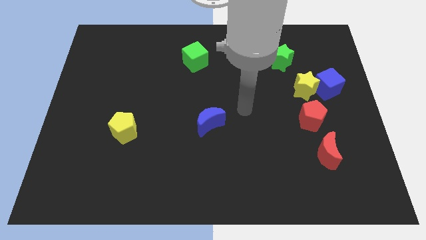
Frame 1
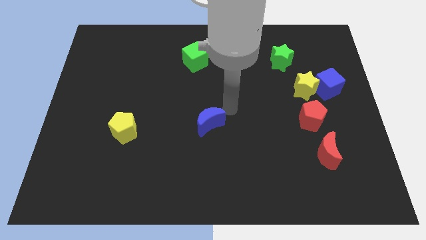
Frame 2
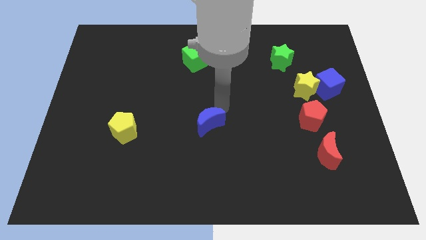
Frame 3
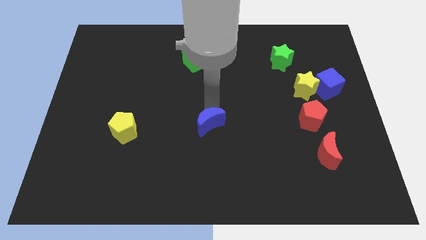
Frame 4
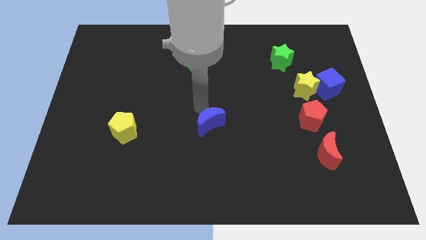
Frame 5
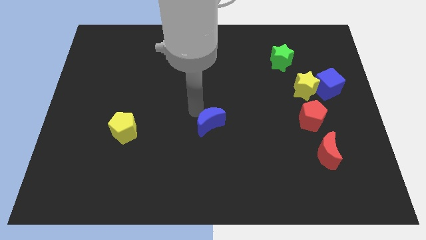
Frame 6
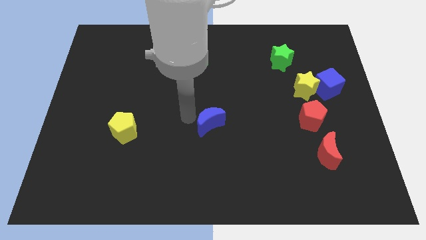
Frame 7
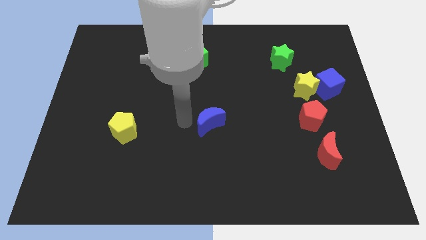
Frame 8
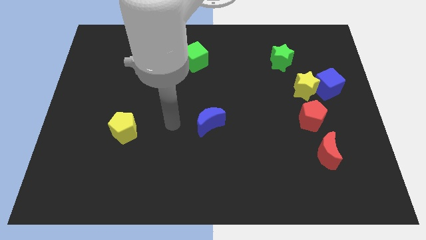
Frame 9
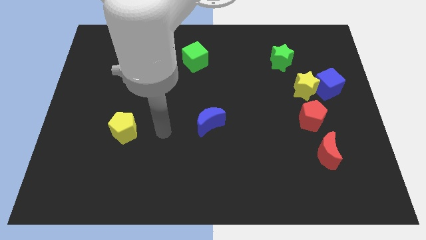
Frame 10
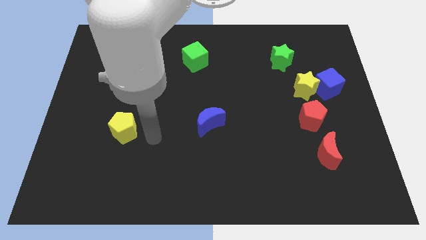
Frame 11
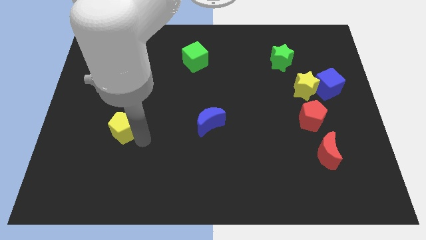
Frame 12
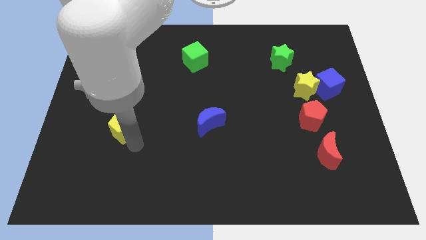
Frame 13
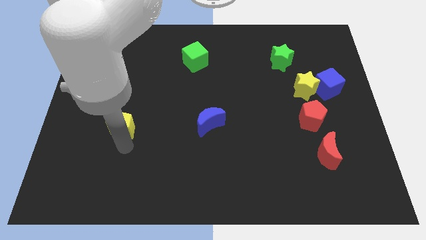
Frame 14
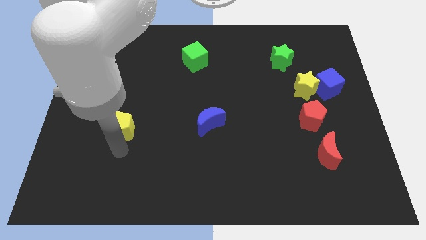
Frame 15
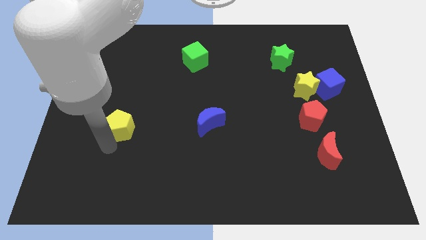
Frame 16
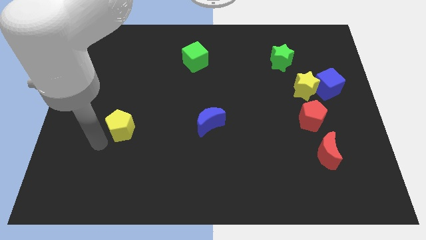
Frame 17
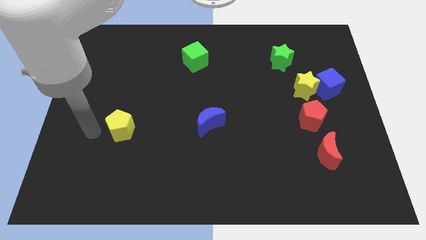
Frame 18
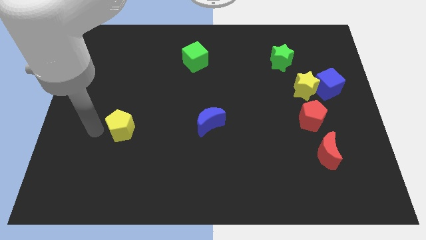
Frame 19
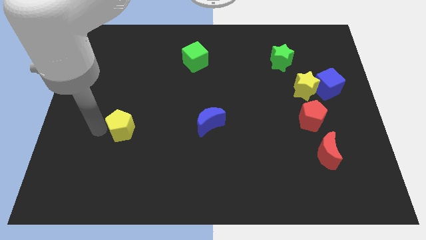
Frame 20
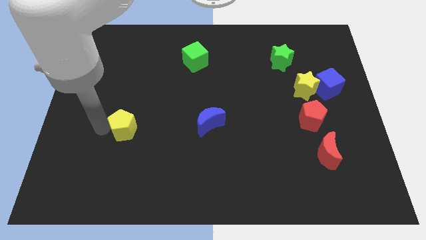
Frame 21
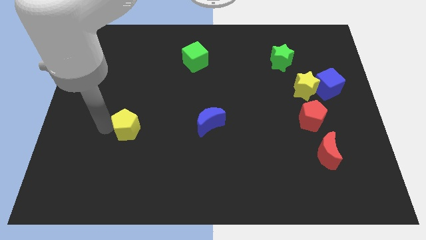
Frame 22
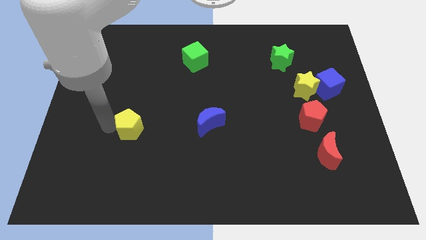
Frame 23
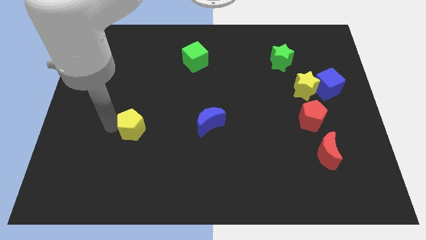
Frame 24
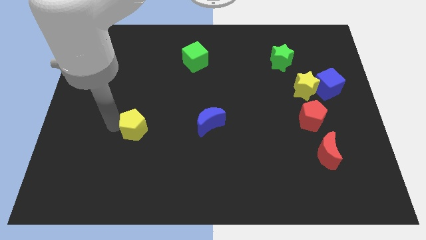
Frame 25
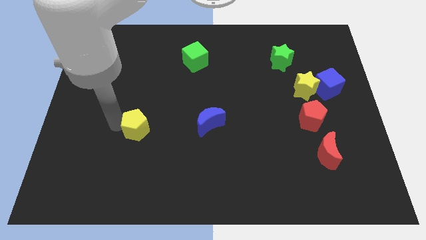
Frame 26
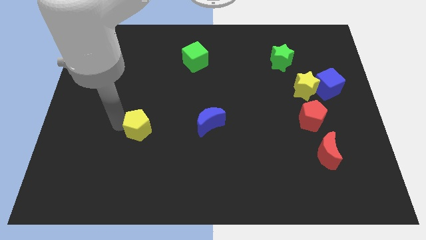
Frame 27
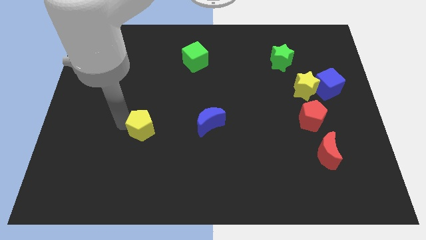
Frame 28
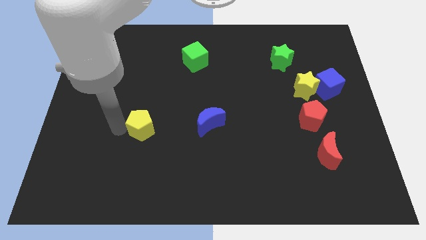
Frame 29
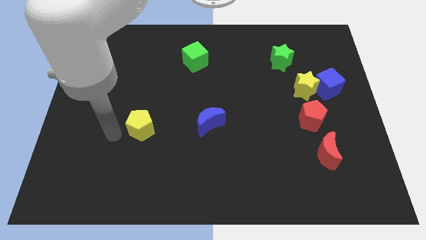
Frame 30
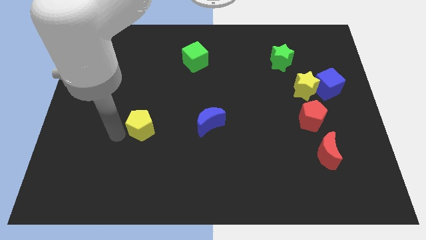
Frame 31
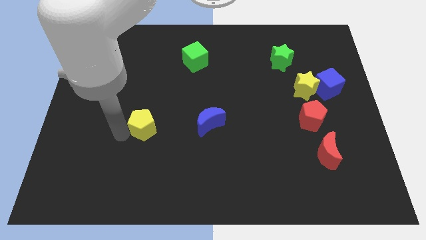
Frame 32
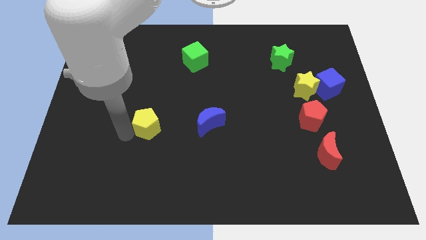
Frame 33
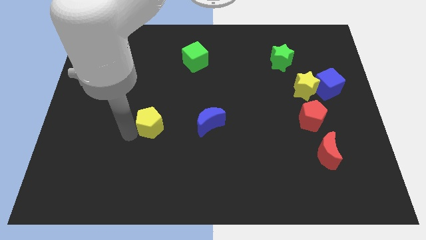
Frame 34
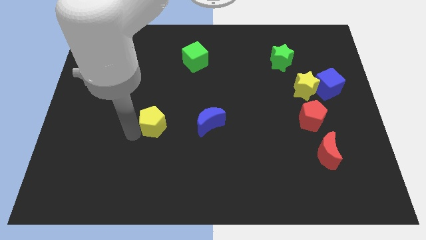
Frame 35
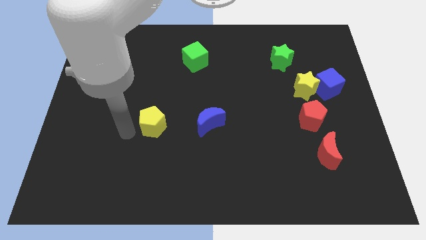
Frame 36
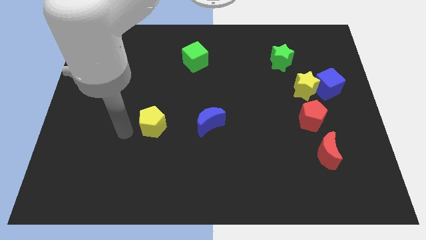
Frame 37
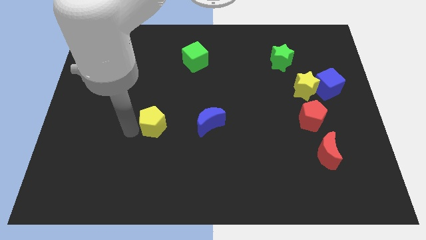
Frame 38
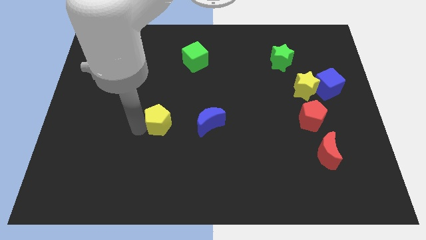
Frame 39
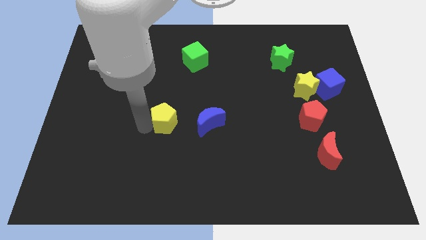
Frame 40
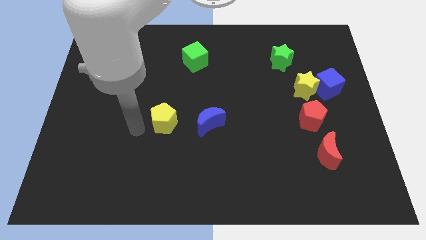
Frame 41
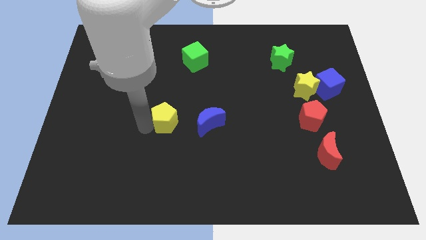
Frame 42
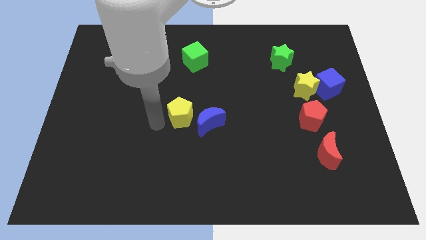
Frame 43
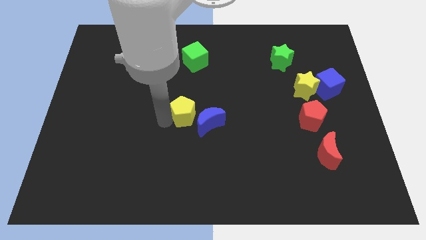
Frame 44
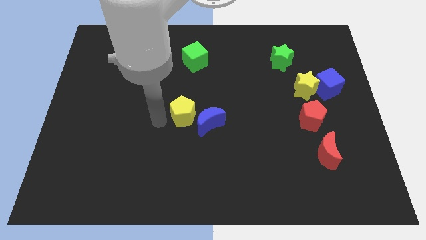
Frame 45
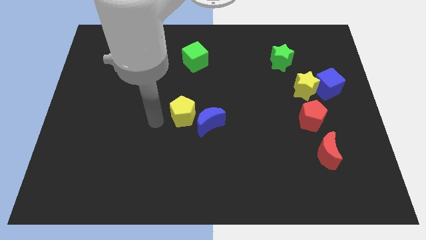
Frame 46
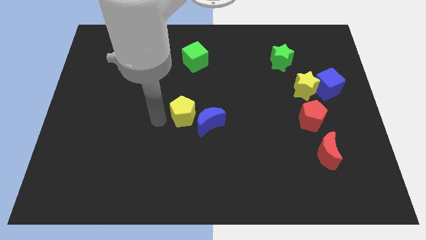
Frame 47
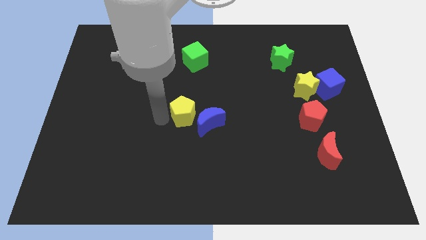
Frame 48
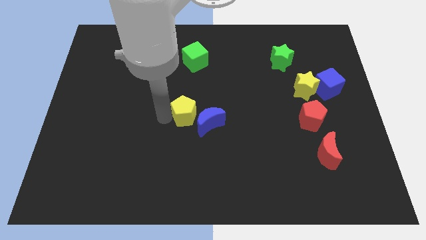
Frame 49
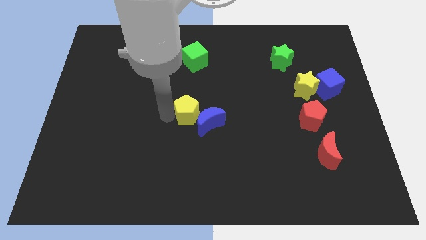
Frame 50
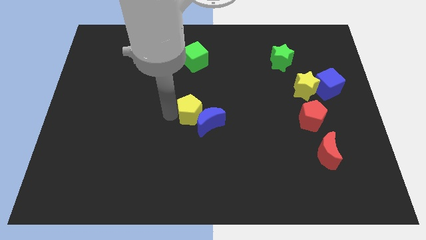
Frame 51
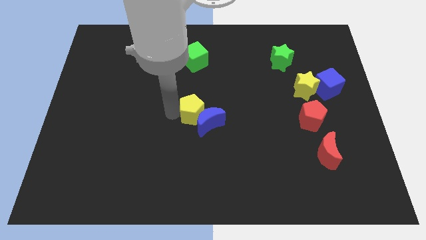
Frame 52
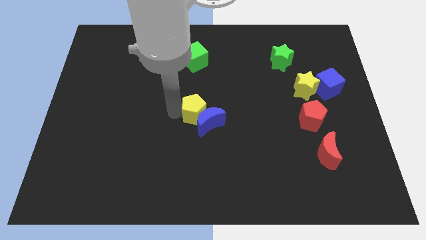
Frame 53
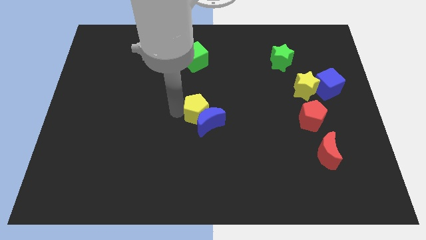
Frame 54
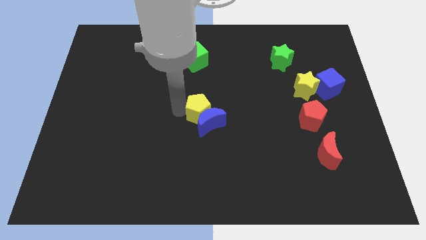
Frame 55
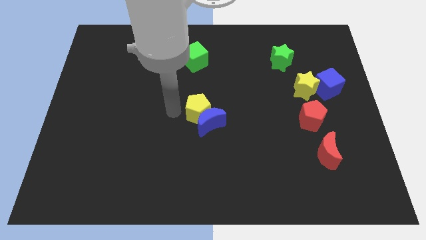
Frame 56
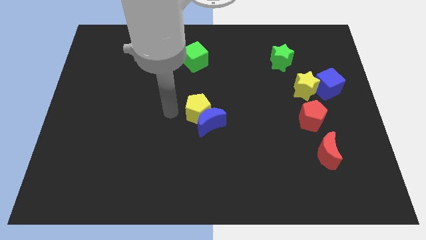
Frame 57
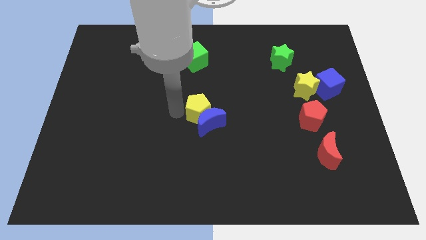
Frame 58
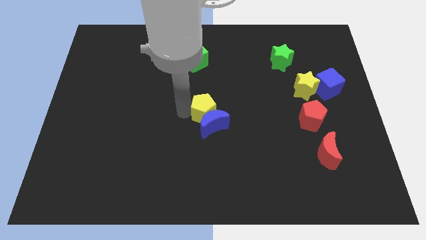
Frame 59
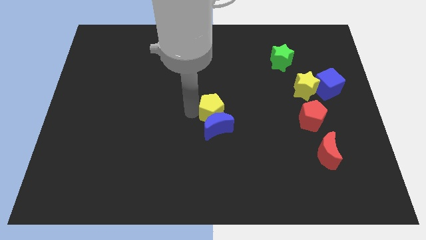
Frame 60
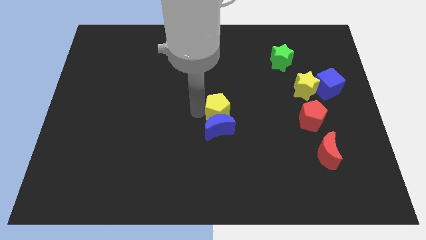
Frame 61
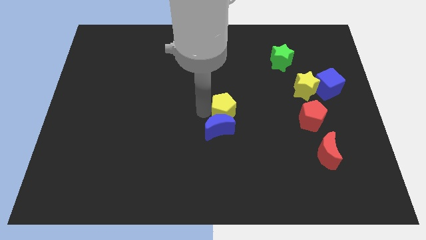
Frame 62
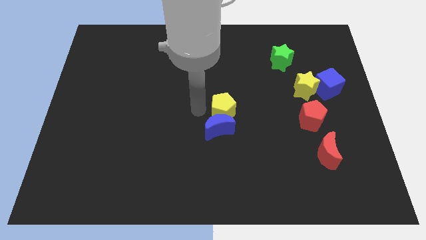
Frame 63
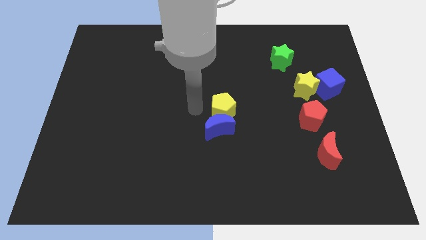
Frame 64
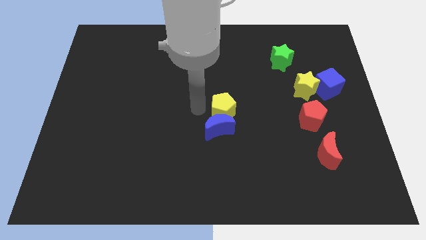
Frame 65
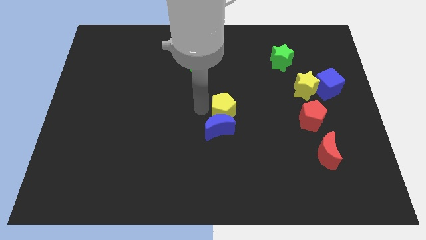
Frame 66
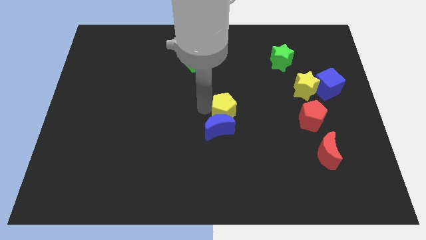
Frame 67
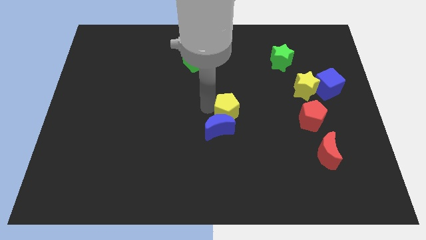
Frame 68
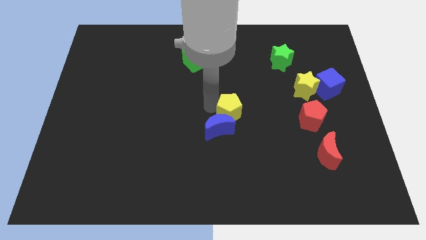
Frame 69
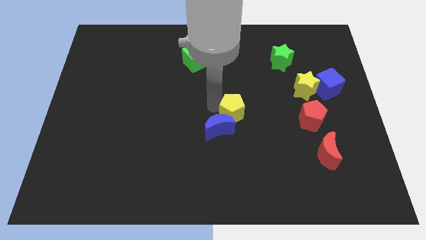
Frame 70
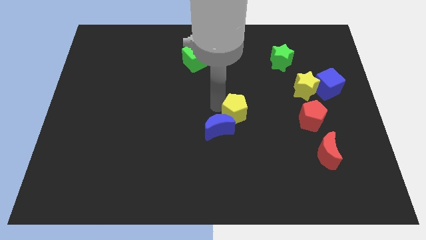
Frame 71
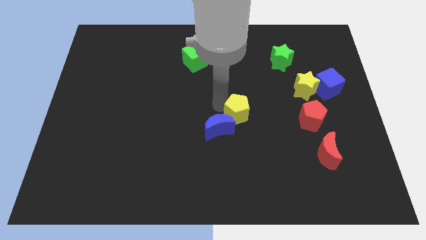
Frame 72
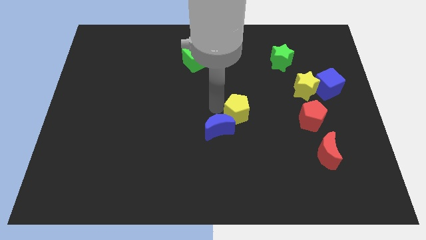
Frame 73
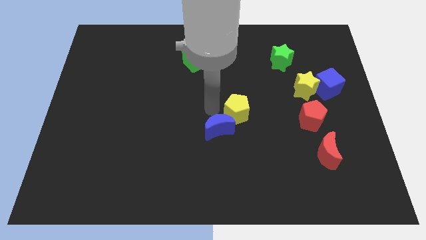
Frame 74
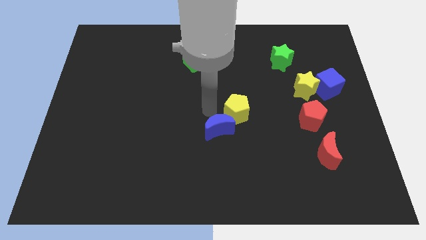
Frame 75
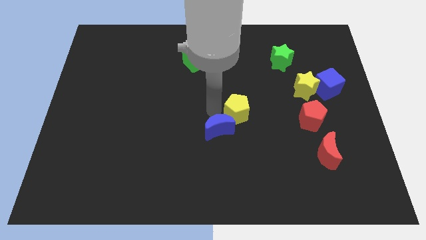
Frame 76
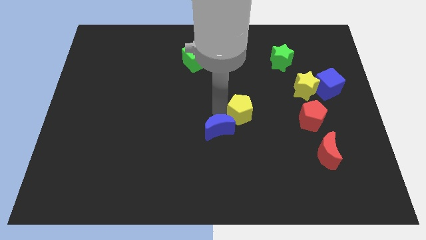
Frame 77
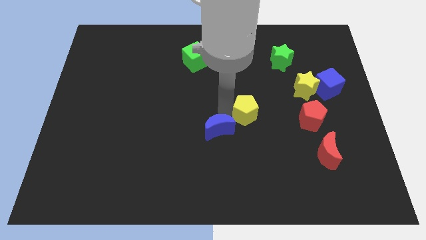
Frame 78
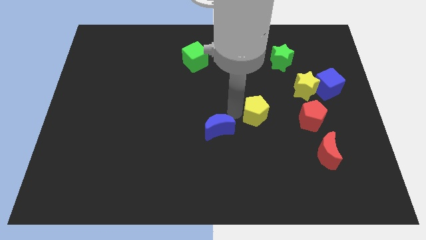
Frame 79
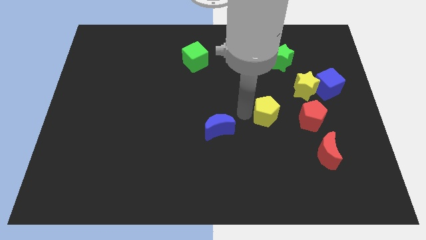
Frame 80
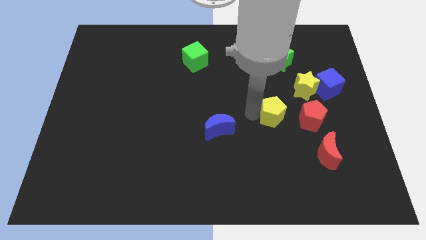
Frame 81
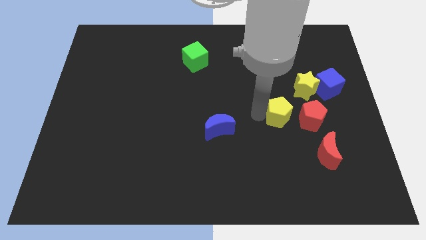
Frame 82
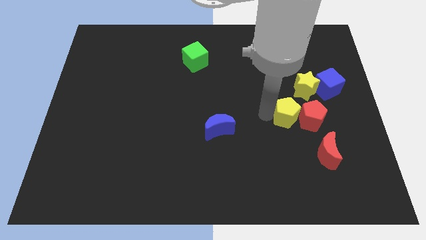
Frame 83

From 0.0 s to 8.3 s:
push the yellow pentagon close to the red pentagon
